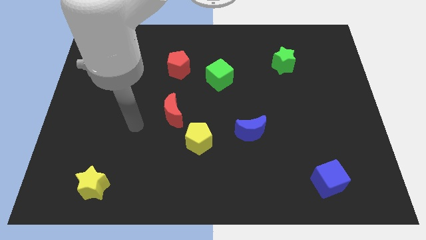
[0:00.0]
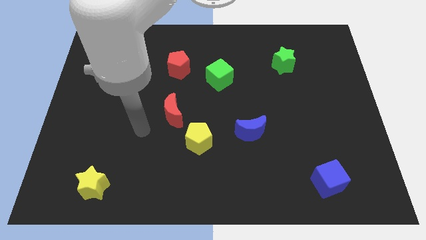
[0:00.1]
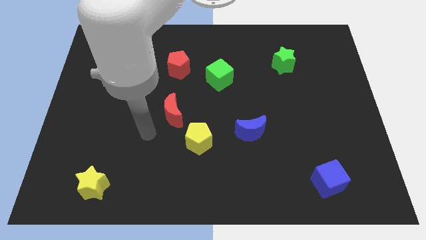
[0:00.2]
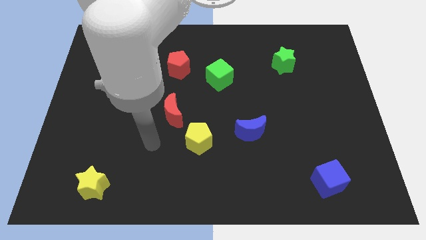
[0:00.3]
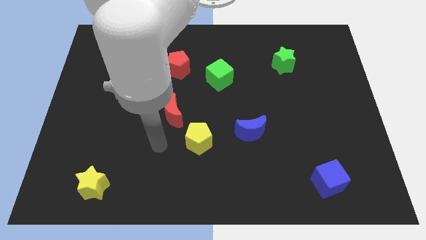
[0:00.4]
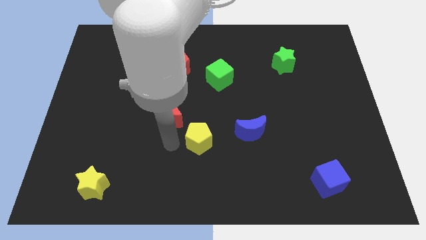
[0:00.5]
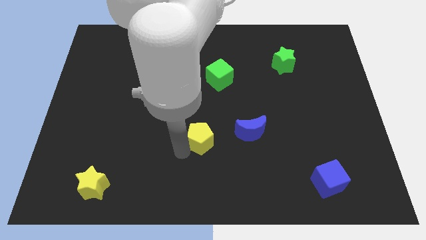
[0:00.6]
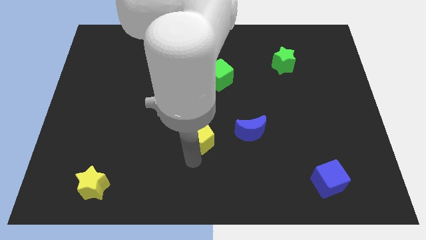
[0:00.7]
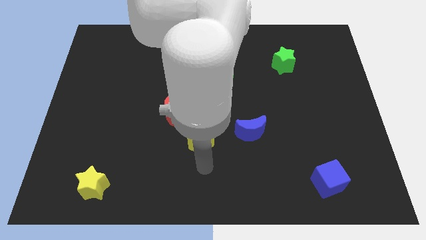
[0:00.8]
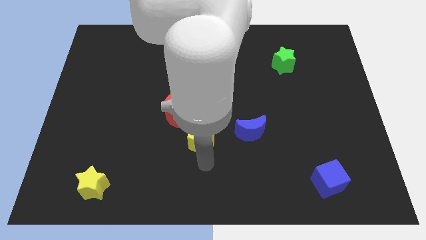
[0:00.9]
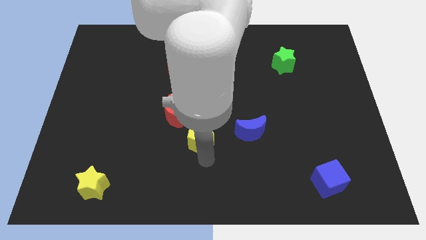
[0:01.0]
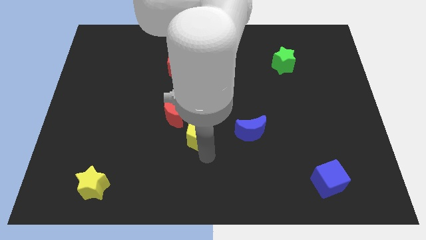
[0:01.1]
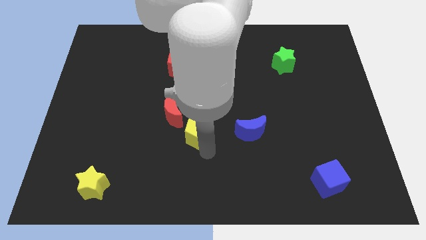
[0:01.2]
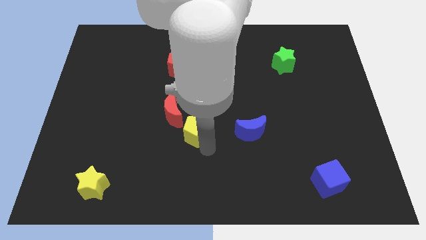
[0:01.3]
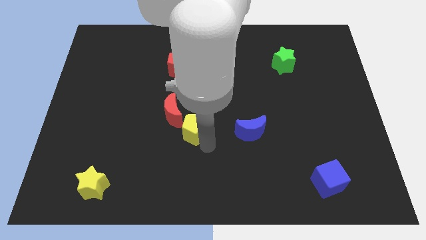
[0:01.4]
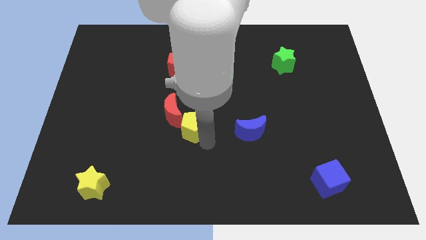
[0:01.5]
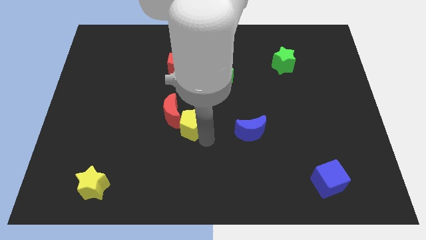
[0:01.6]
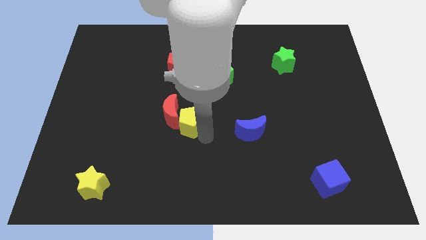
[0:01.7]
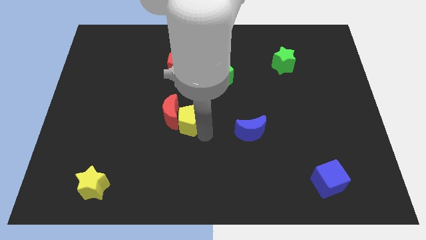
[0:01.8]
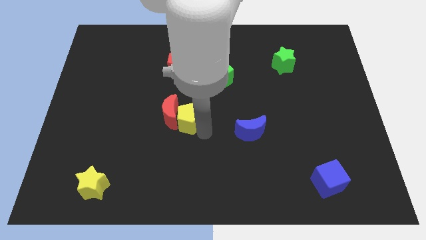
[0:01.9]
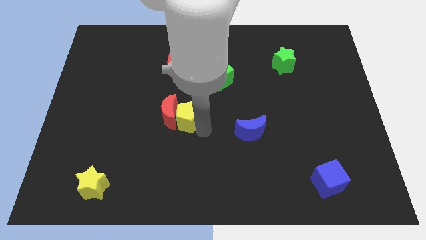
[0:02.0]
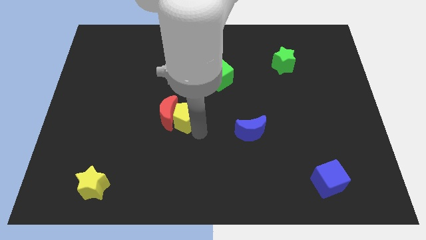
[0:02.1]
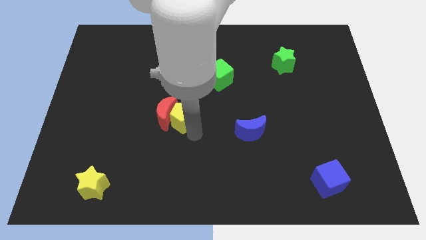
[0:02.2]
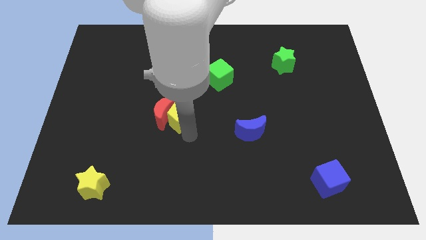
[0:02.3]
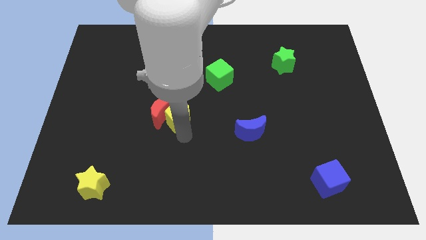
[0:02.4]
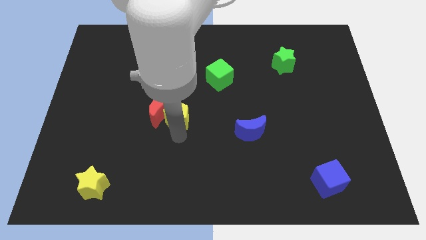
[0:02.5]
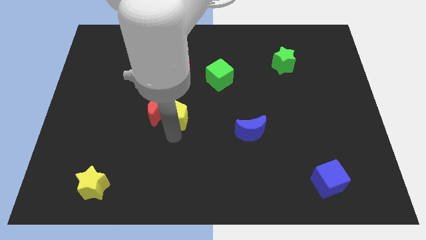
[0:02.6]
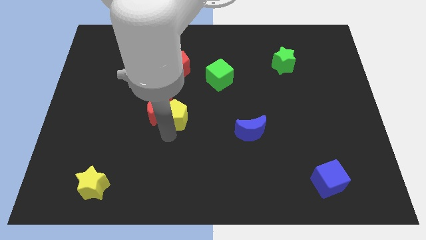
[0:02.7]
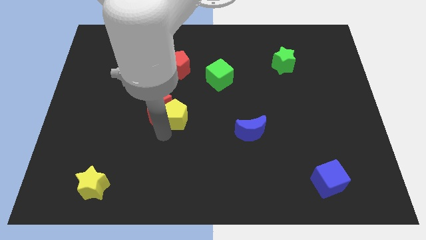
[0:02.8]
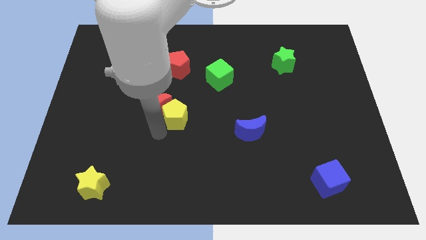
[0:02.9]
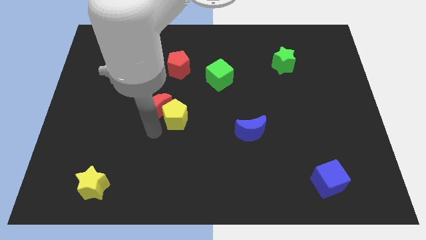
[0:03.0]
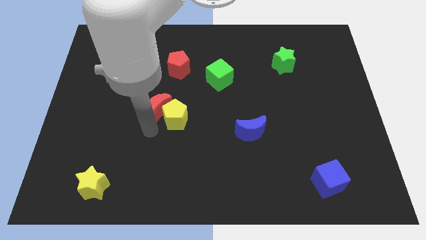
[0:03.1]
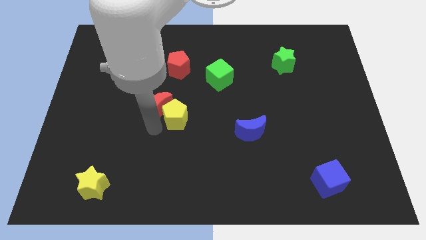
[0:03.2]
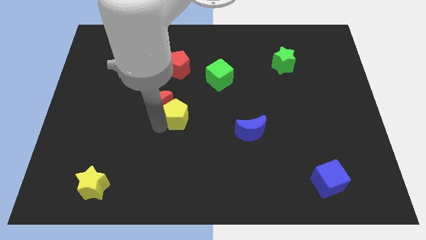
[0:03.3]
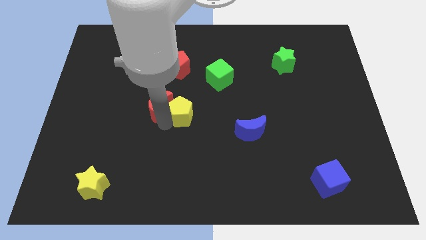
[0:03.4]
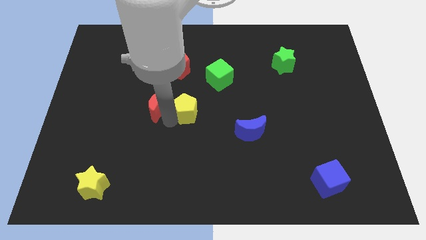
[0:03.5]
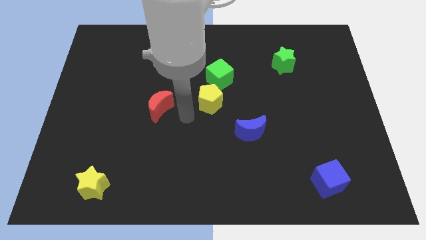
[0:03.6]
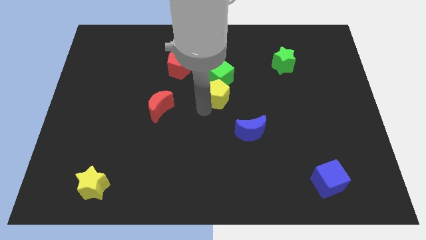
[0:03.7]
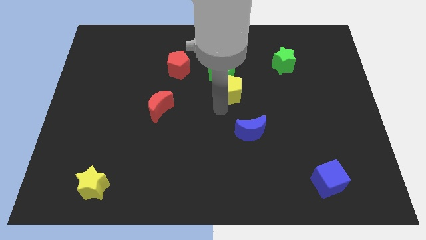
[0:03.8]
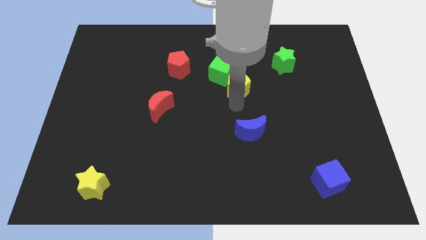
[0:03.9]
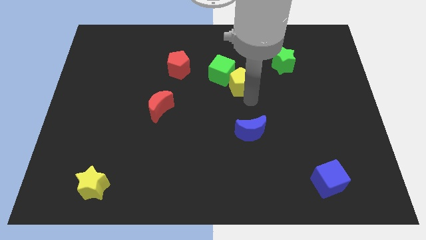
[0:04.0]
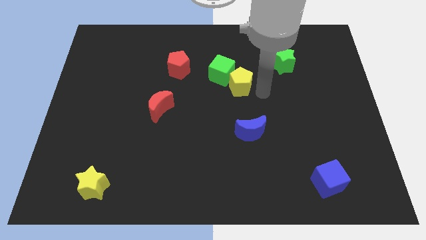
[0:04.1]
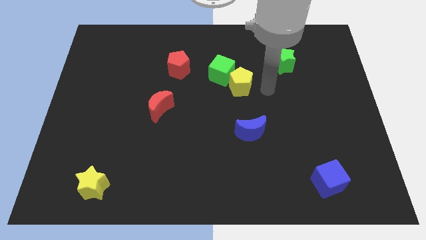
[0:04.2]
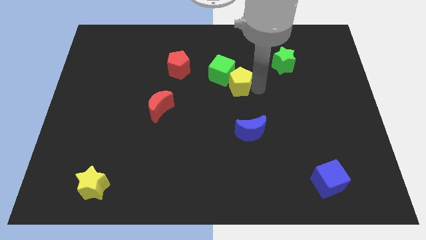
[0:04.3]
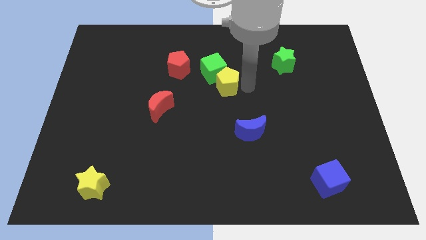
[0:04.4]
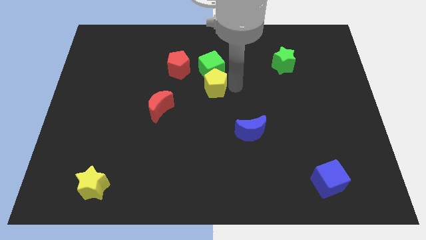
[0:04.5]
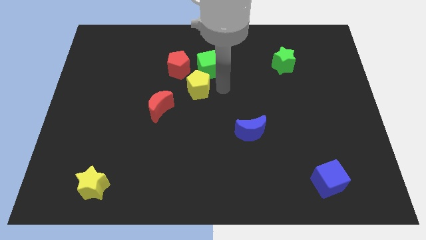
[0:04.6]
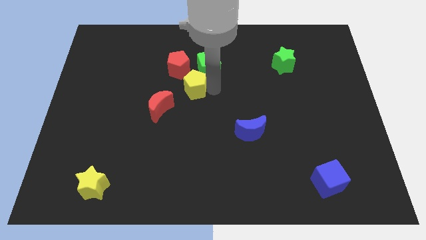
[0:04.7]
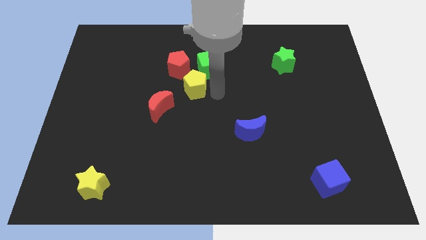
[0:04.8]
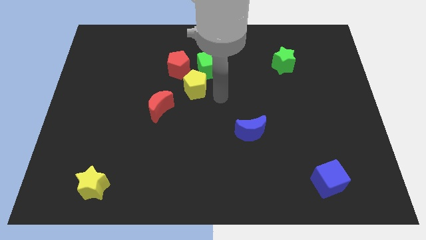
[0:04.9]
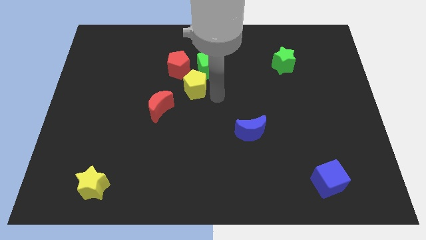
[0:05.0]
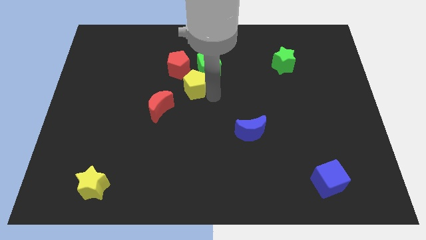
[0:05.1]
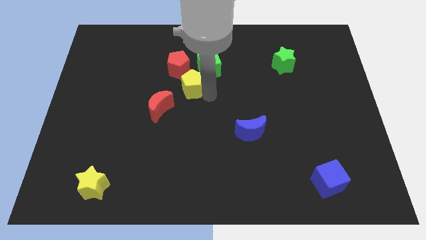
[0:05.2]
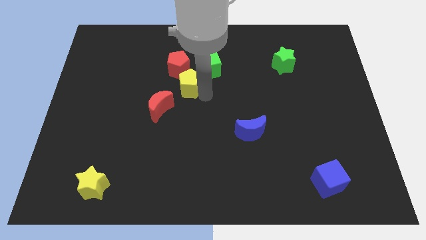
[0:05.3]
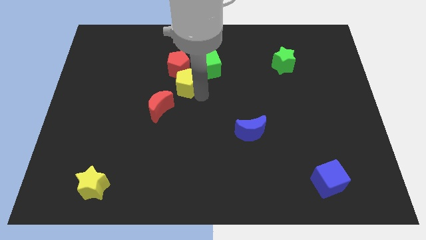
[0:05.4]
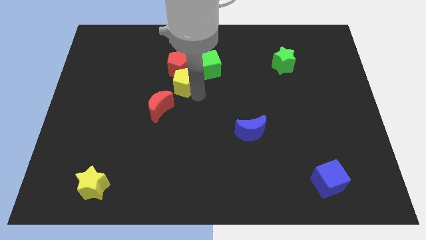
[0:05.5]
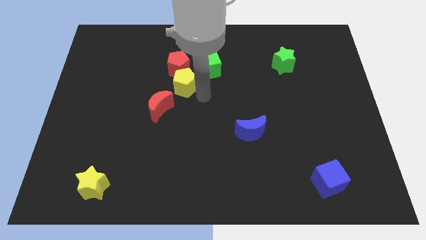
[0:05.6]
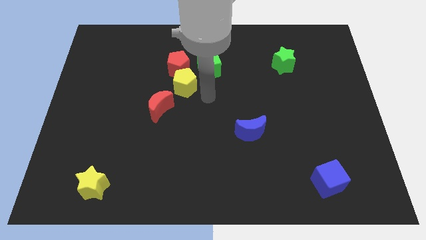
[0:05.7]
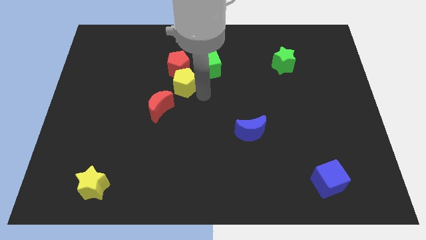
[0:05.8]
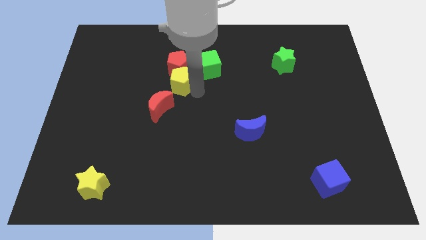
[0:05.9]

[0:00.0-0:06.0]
slide the yellow pentagon to the top of the red moon

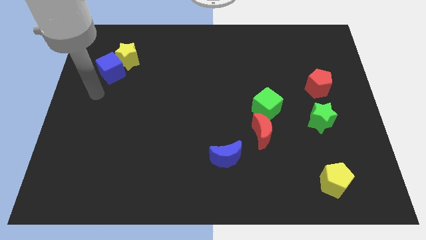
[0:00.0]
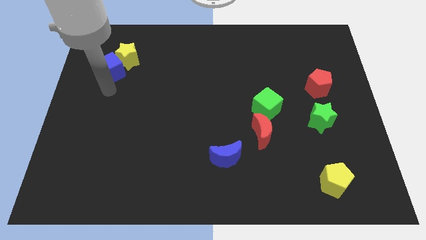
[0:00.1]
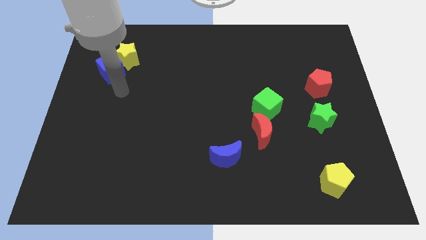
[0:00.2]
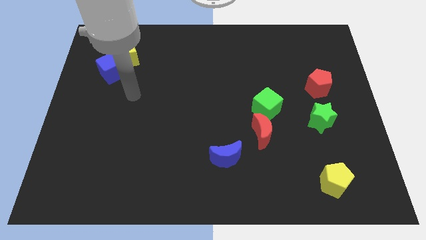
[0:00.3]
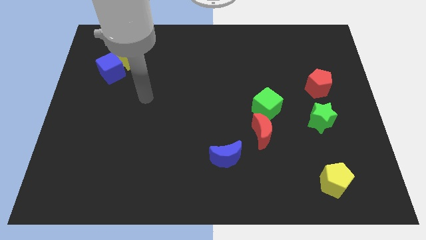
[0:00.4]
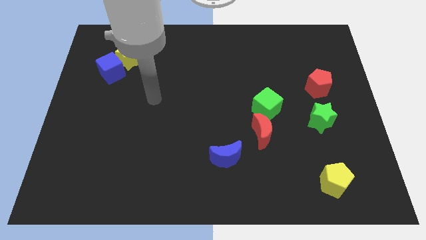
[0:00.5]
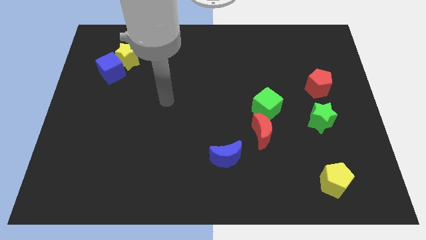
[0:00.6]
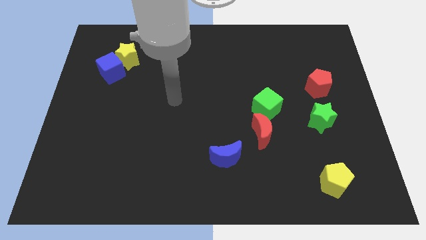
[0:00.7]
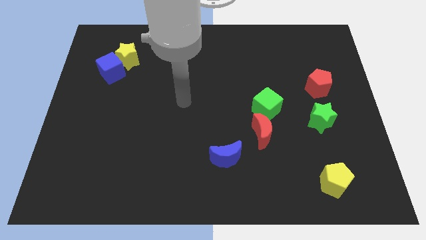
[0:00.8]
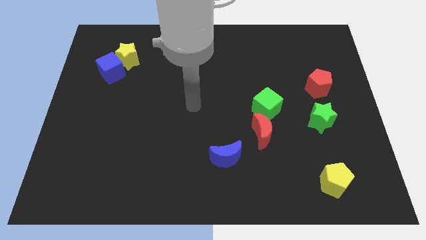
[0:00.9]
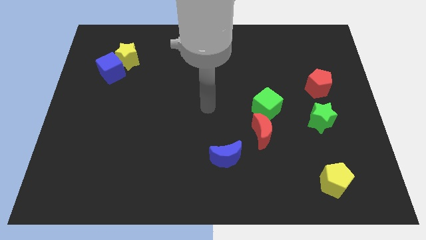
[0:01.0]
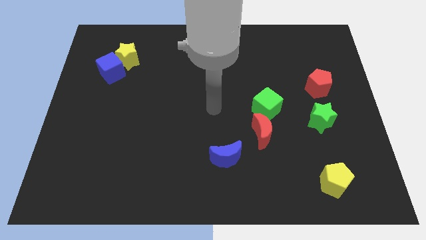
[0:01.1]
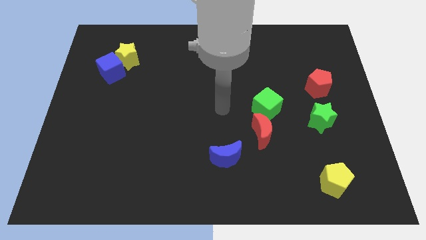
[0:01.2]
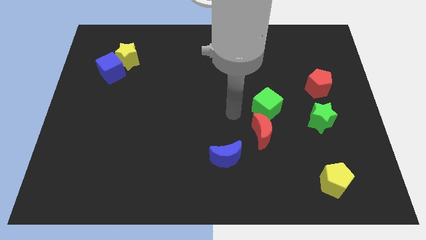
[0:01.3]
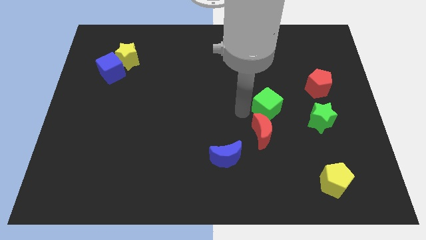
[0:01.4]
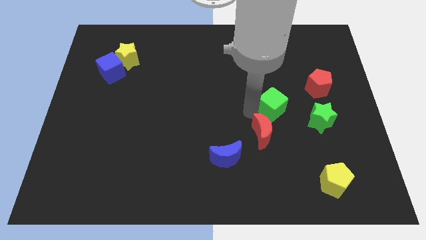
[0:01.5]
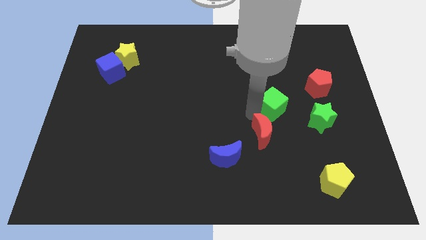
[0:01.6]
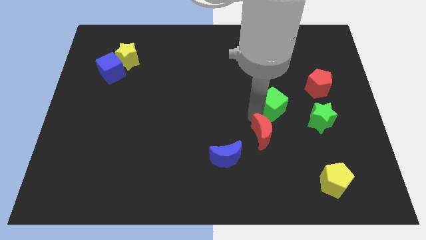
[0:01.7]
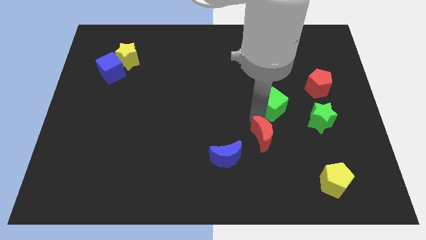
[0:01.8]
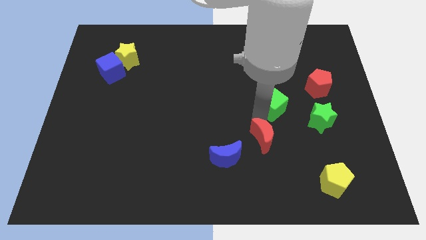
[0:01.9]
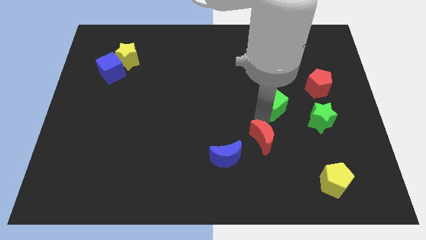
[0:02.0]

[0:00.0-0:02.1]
slide the red moon just right of the blue moon
